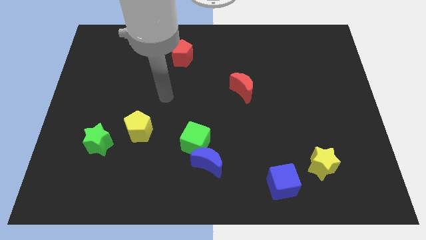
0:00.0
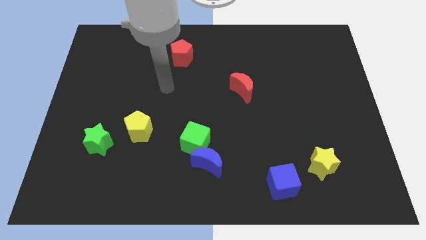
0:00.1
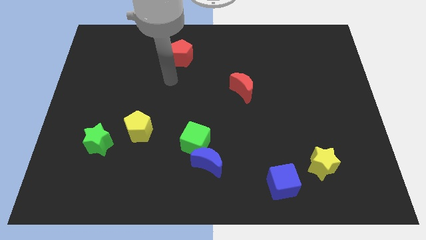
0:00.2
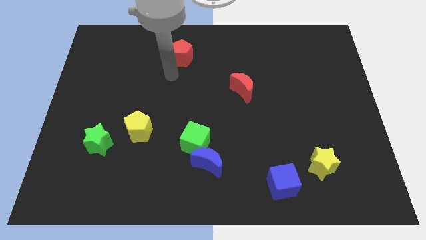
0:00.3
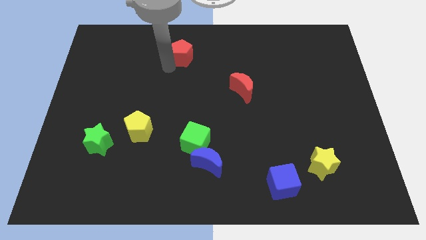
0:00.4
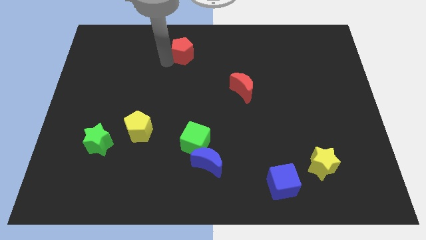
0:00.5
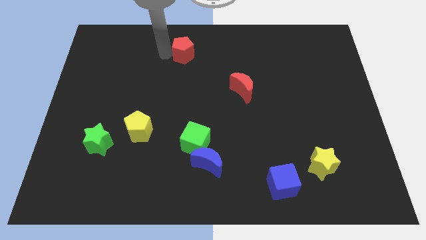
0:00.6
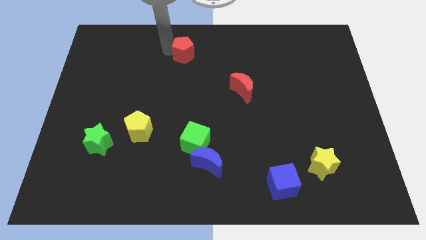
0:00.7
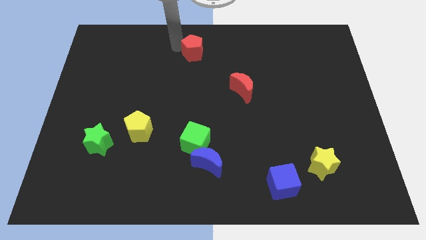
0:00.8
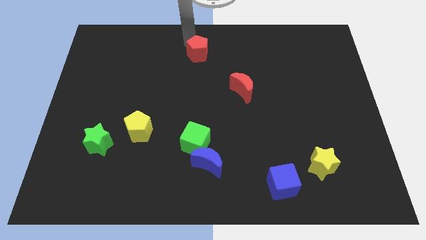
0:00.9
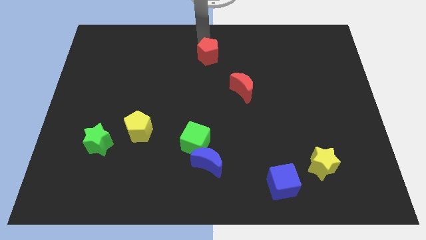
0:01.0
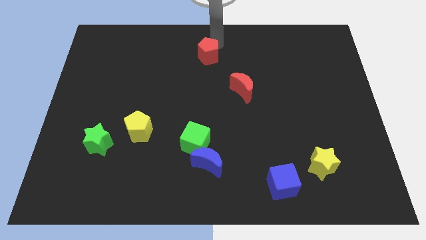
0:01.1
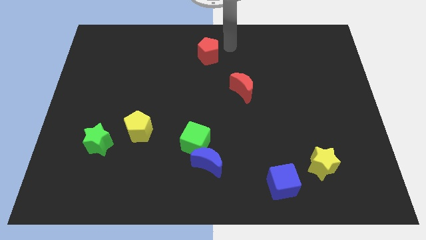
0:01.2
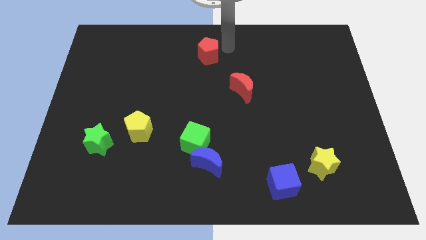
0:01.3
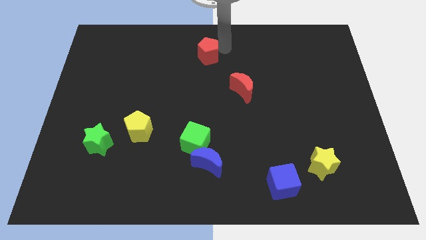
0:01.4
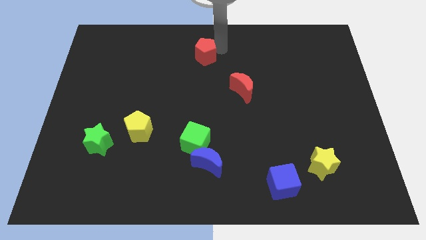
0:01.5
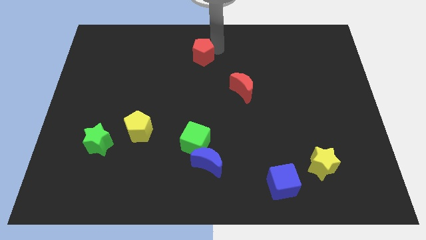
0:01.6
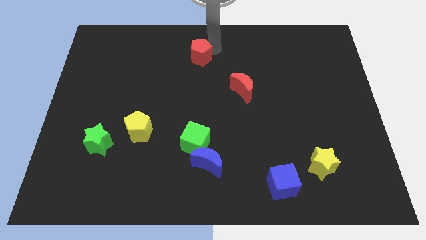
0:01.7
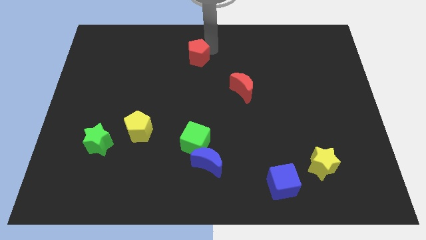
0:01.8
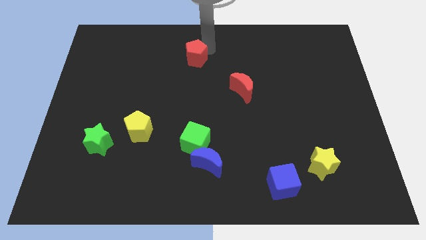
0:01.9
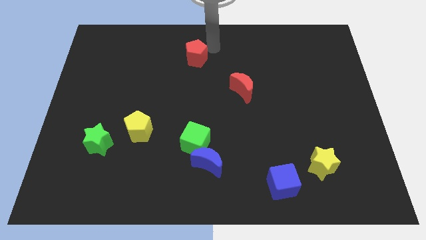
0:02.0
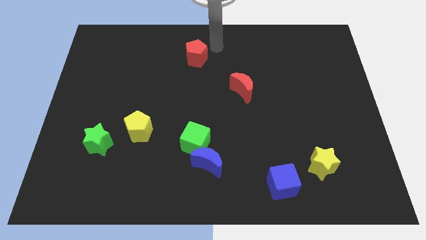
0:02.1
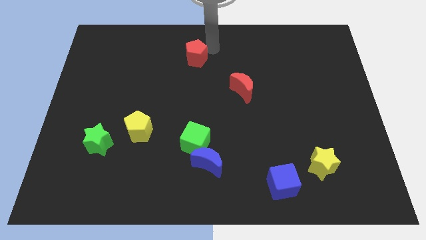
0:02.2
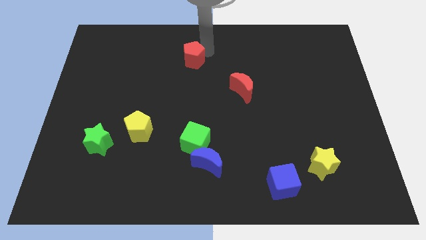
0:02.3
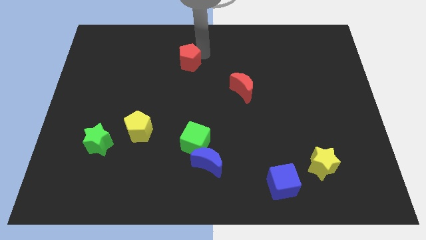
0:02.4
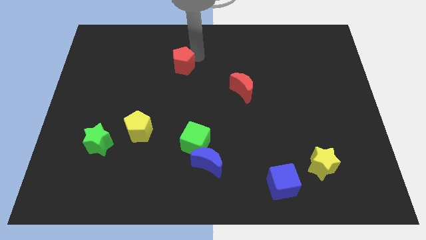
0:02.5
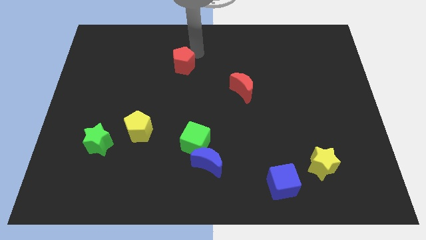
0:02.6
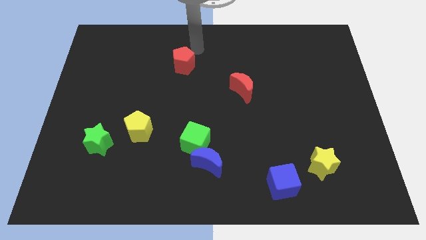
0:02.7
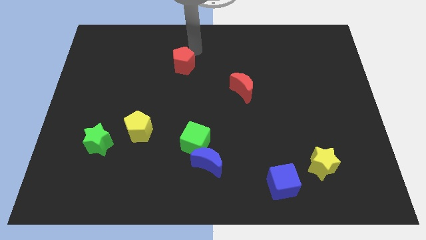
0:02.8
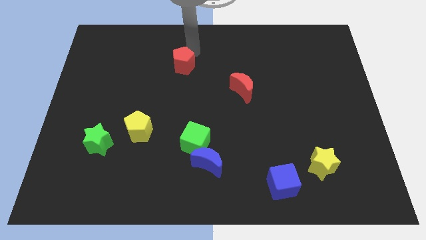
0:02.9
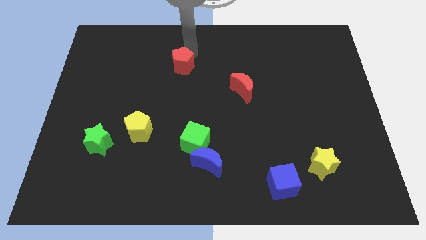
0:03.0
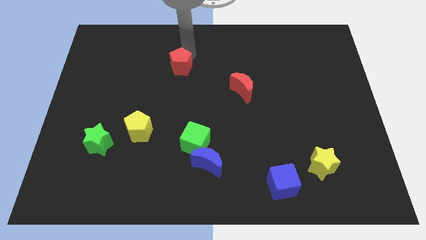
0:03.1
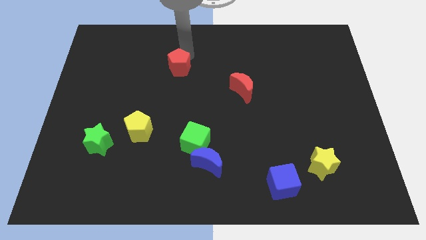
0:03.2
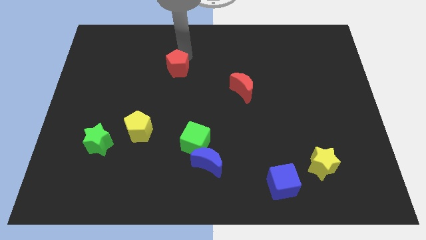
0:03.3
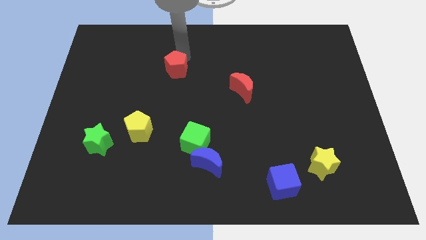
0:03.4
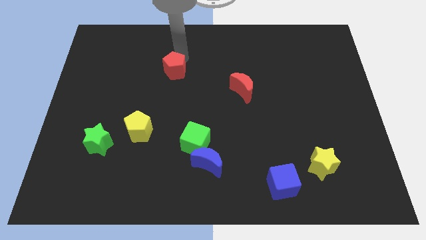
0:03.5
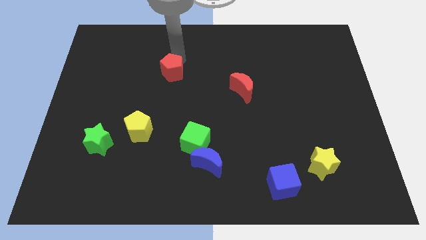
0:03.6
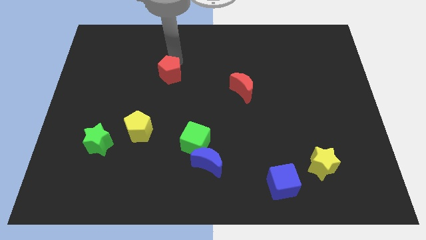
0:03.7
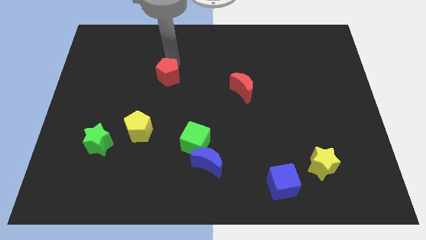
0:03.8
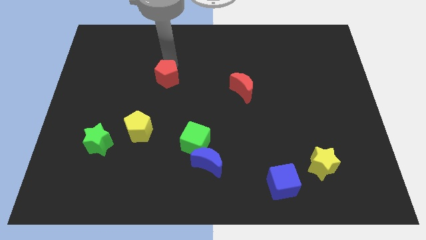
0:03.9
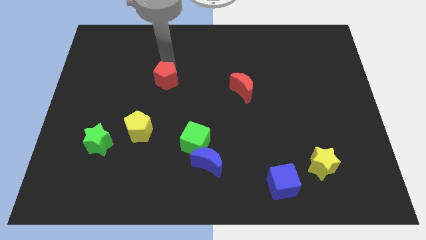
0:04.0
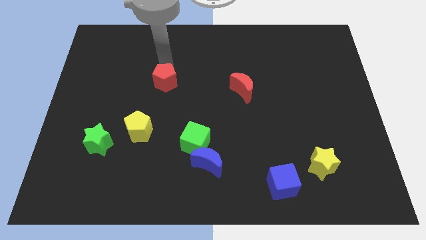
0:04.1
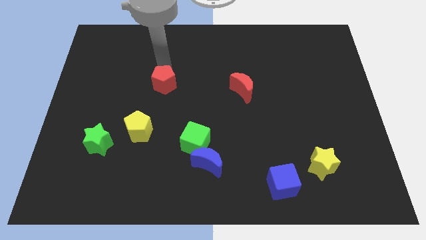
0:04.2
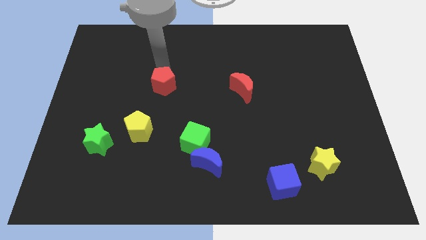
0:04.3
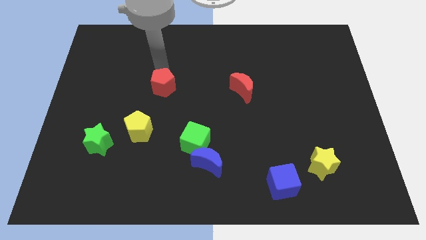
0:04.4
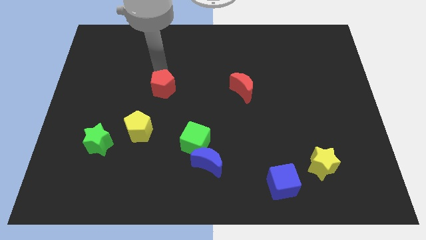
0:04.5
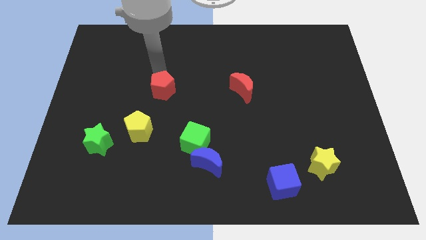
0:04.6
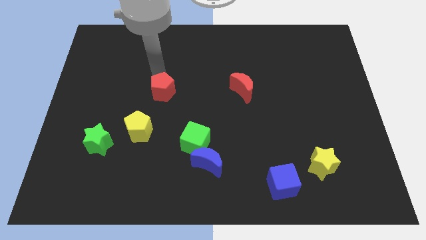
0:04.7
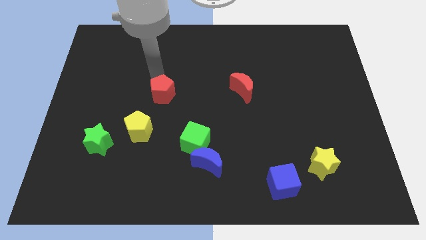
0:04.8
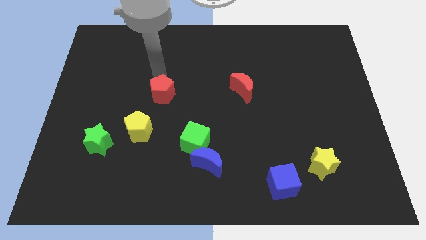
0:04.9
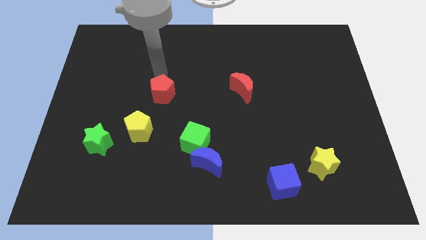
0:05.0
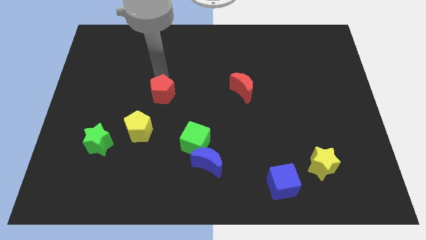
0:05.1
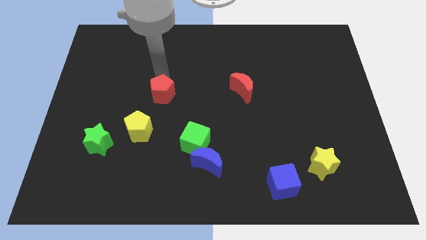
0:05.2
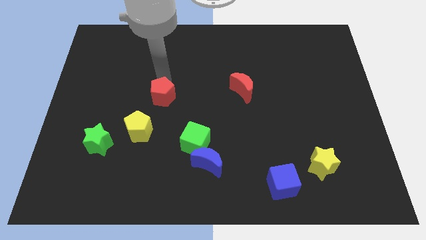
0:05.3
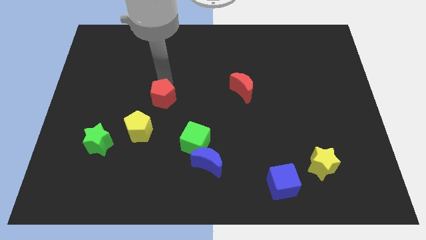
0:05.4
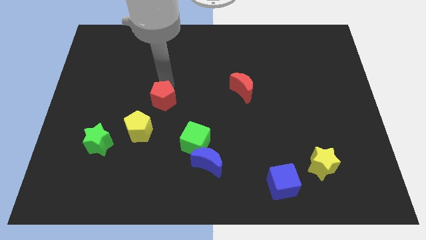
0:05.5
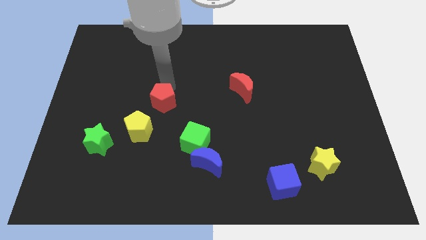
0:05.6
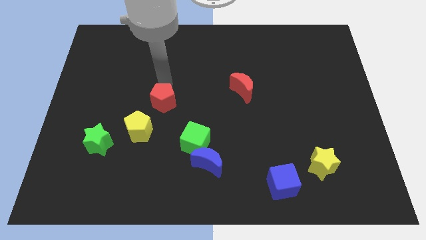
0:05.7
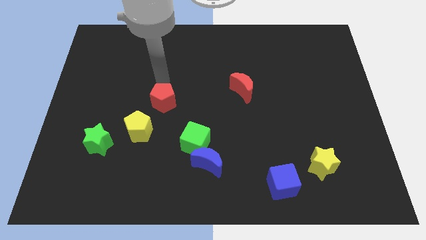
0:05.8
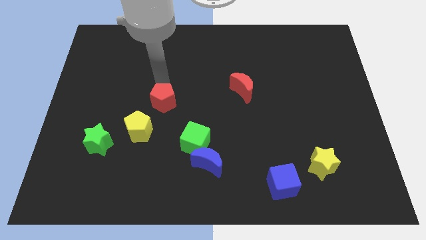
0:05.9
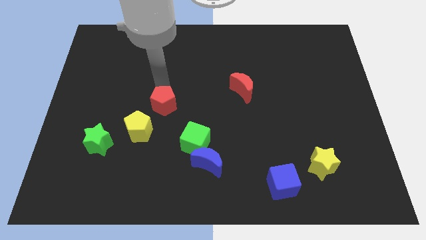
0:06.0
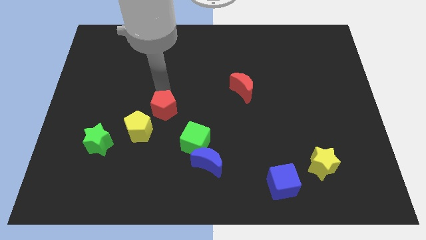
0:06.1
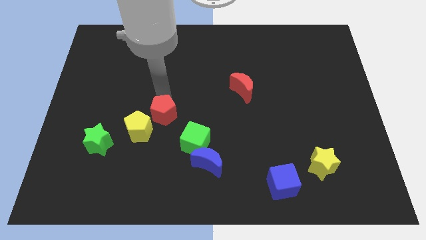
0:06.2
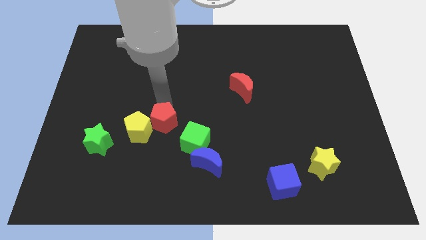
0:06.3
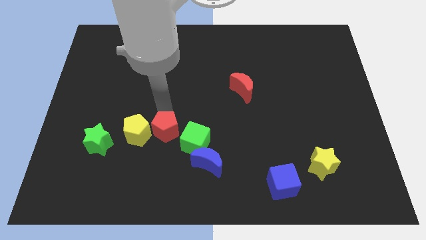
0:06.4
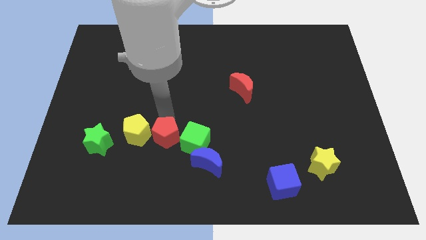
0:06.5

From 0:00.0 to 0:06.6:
slide the red pentagon to the bottom right side of the yellow pentagon
